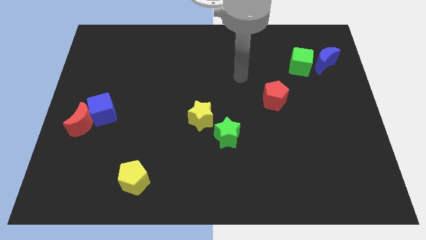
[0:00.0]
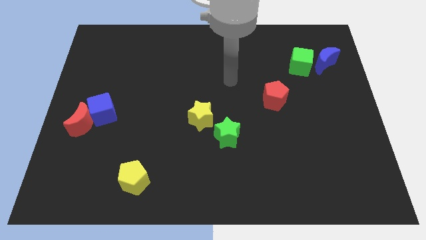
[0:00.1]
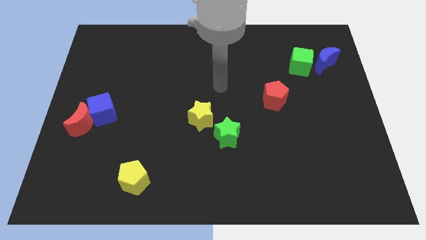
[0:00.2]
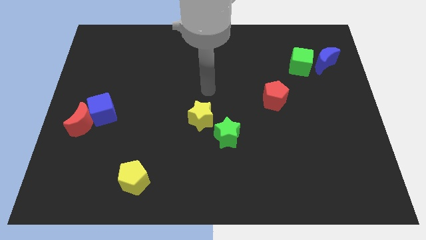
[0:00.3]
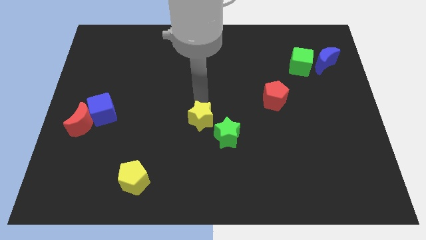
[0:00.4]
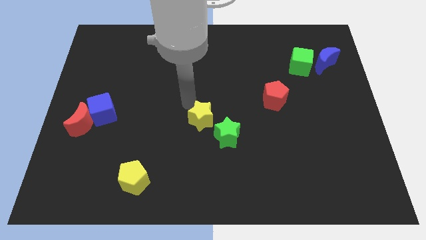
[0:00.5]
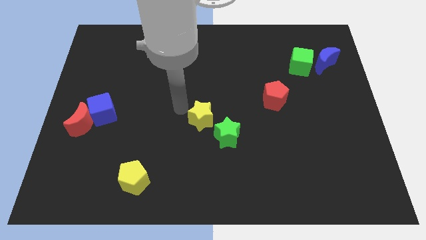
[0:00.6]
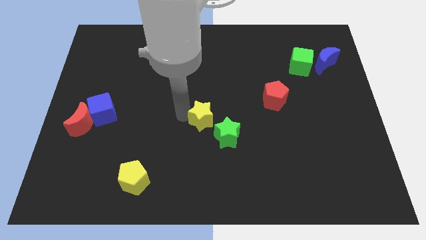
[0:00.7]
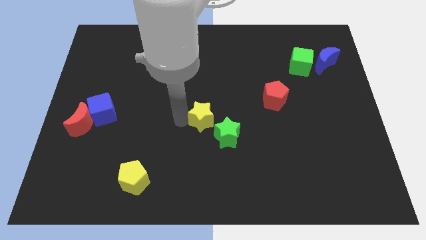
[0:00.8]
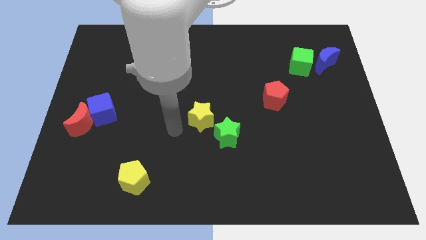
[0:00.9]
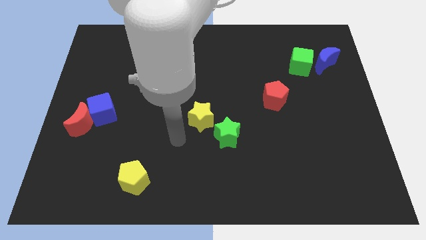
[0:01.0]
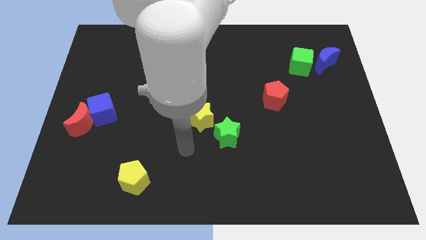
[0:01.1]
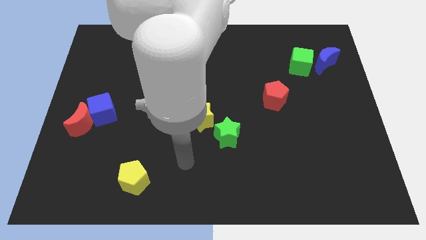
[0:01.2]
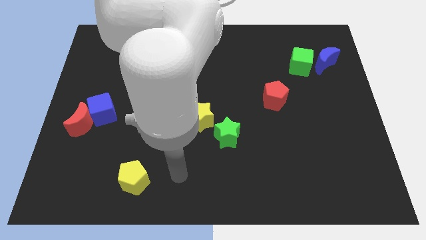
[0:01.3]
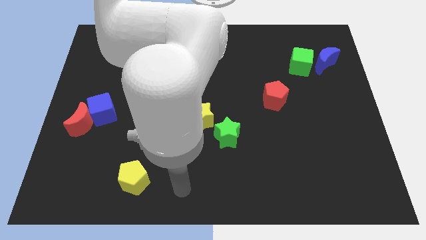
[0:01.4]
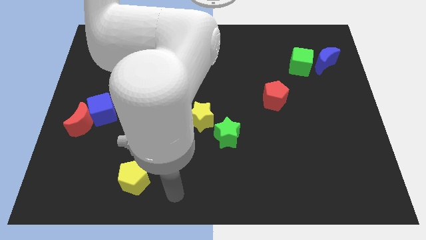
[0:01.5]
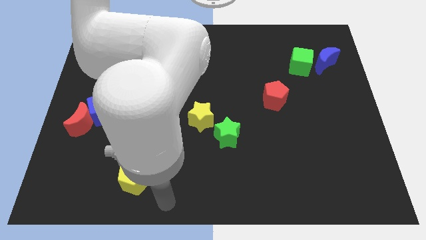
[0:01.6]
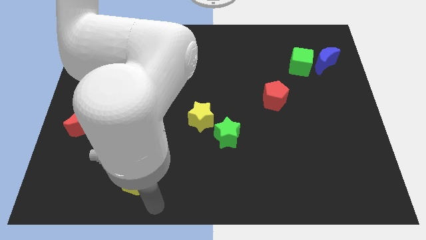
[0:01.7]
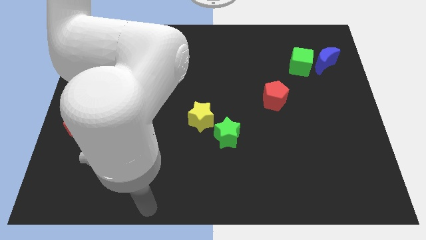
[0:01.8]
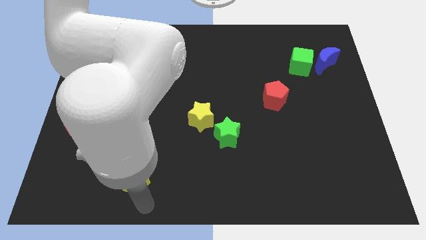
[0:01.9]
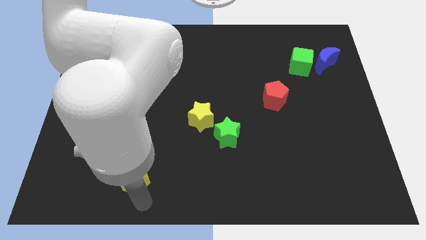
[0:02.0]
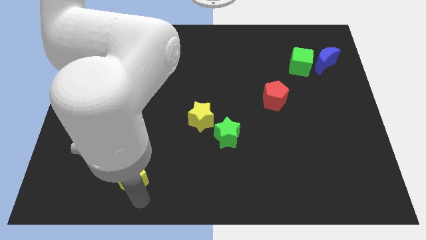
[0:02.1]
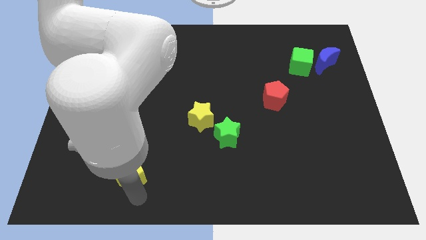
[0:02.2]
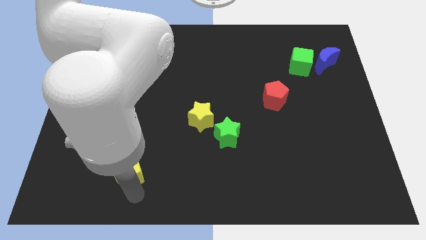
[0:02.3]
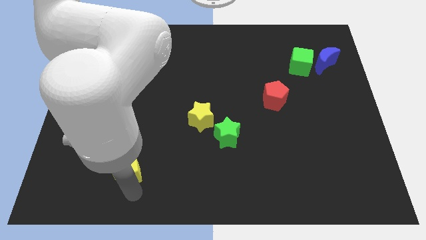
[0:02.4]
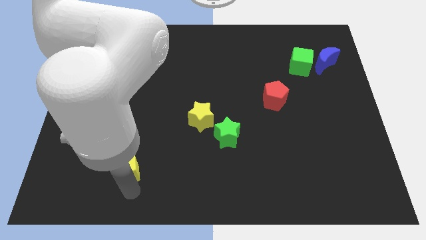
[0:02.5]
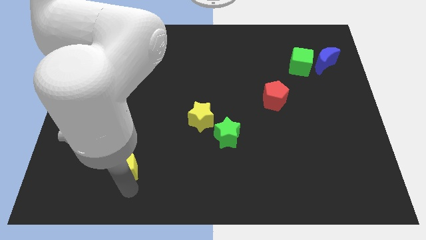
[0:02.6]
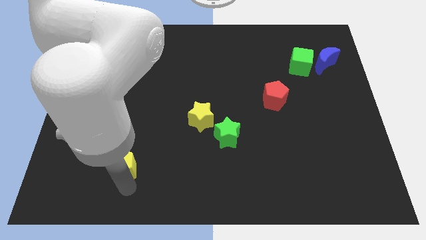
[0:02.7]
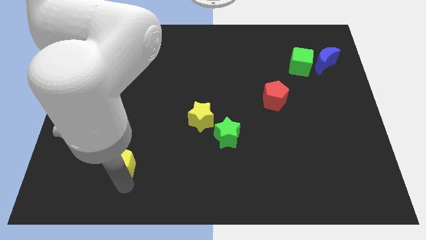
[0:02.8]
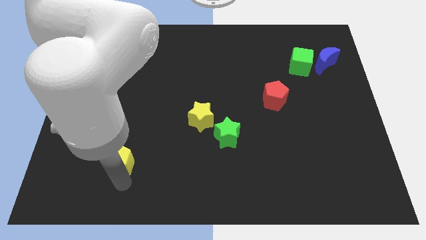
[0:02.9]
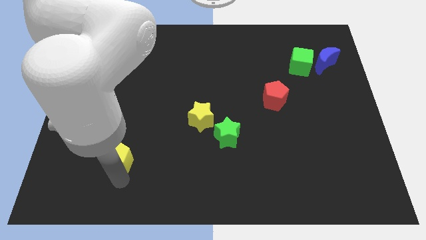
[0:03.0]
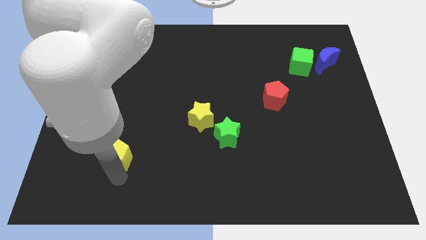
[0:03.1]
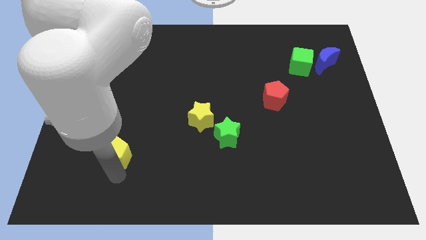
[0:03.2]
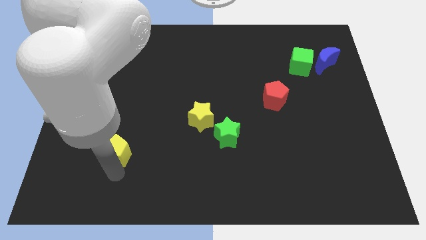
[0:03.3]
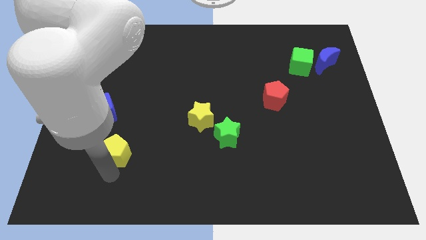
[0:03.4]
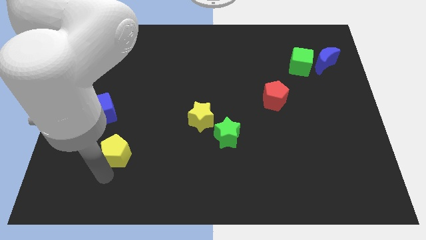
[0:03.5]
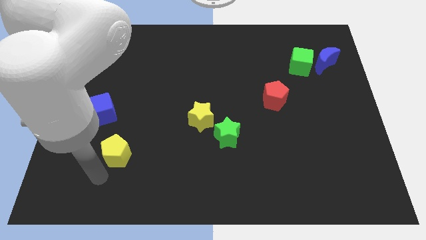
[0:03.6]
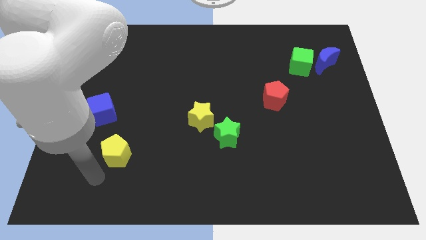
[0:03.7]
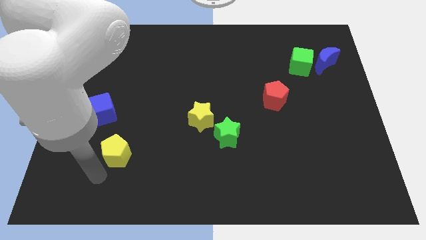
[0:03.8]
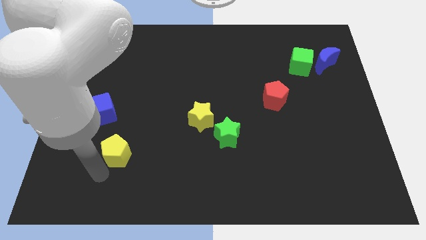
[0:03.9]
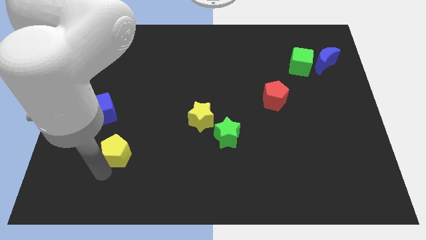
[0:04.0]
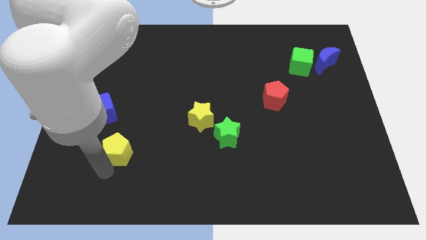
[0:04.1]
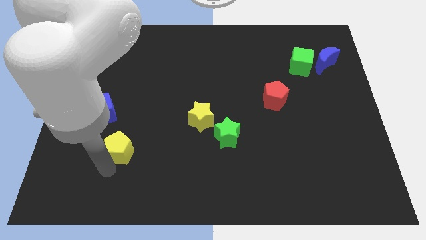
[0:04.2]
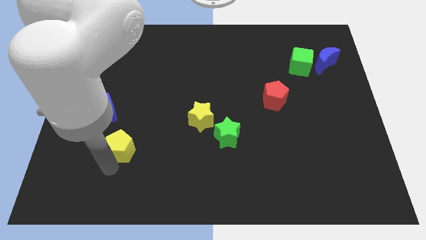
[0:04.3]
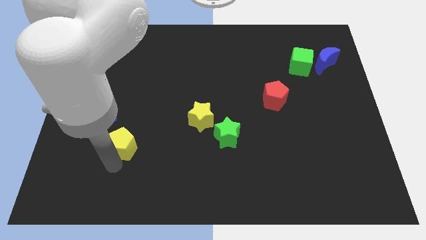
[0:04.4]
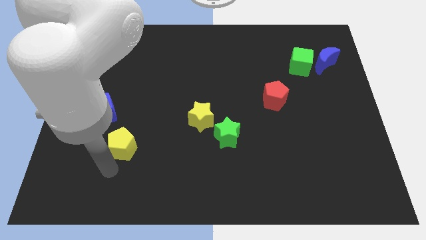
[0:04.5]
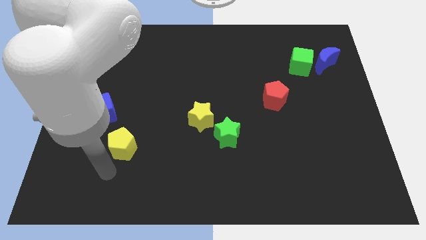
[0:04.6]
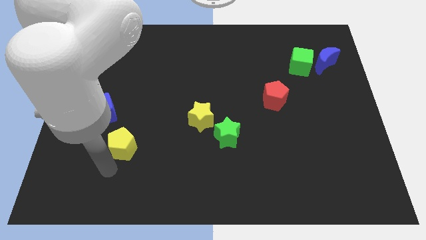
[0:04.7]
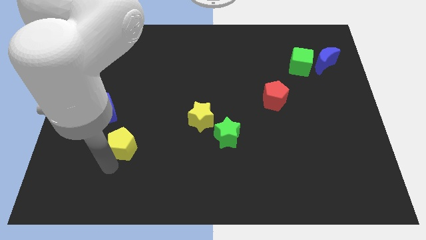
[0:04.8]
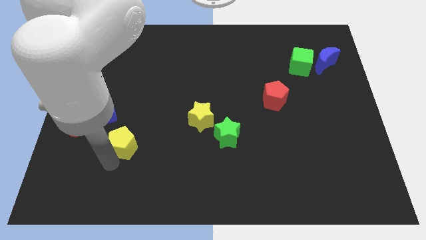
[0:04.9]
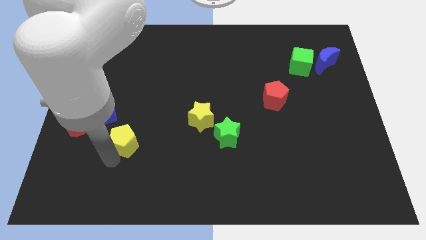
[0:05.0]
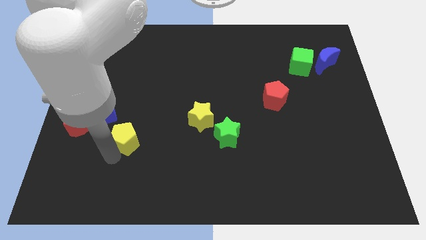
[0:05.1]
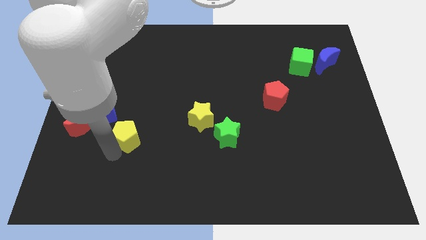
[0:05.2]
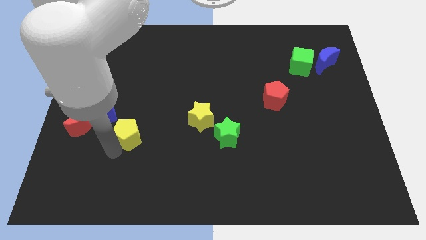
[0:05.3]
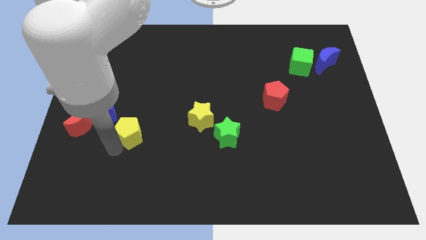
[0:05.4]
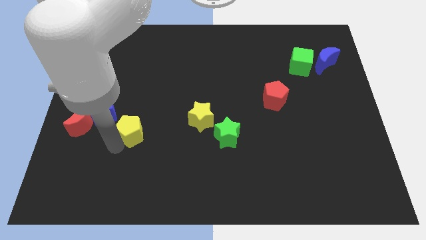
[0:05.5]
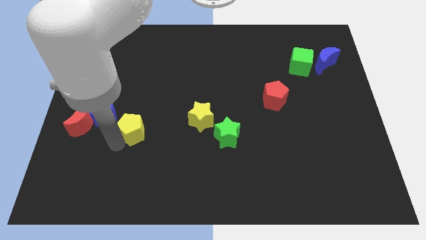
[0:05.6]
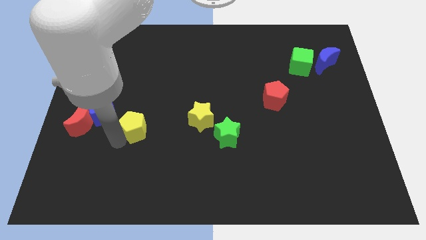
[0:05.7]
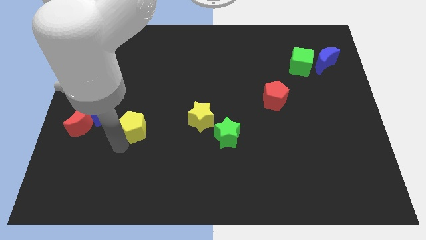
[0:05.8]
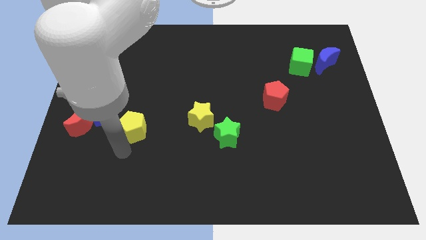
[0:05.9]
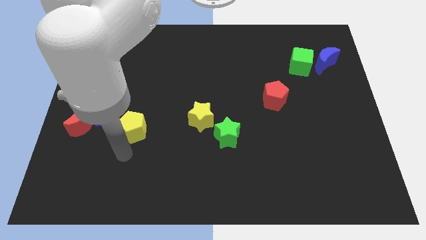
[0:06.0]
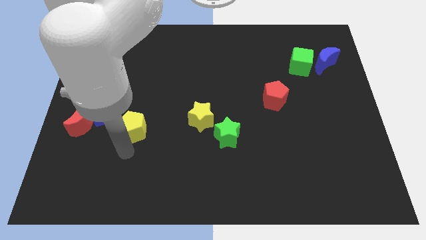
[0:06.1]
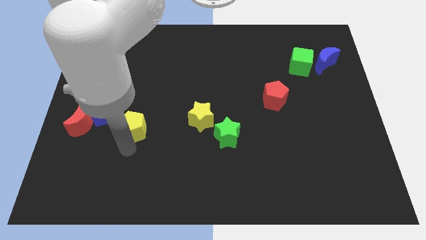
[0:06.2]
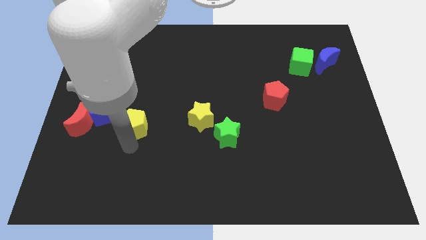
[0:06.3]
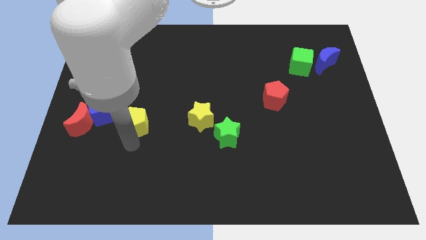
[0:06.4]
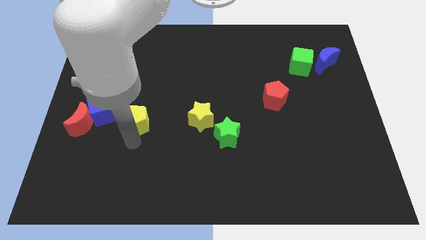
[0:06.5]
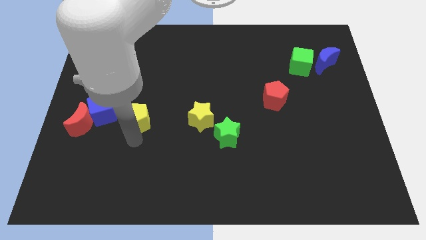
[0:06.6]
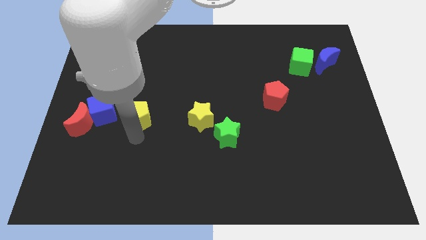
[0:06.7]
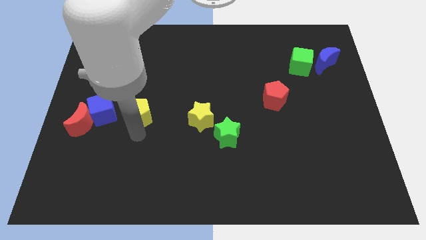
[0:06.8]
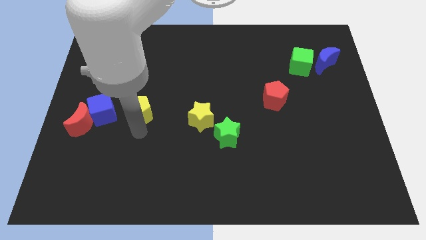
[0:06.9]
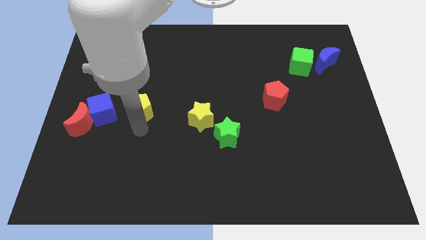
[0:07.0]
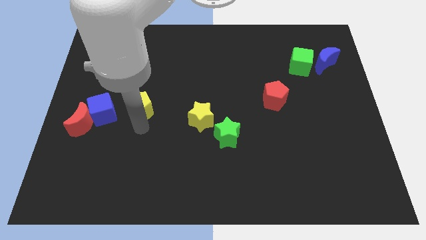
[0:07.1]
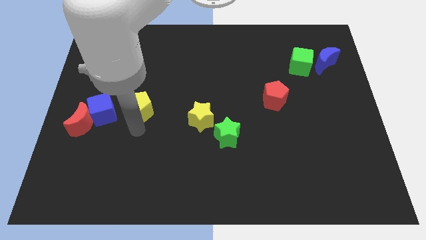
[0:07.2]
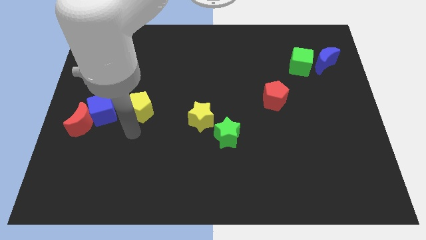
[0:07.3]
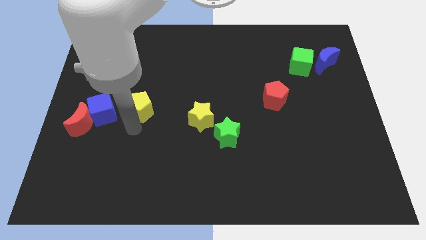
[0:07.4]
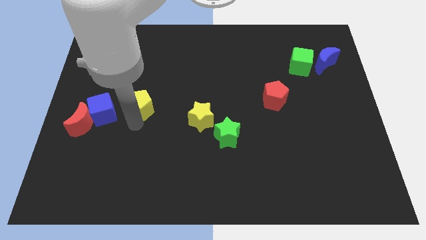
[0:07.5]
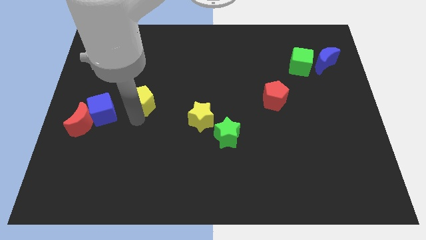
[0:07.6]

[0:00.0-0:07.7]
slide the yellow pentagon upwards

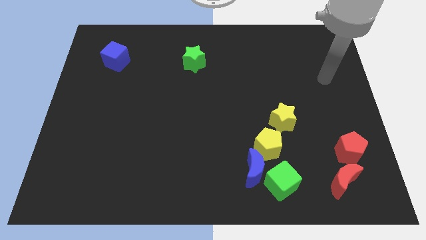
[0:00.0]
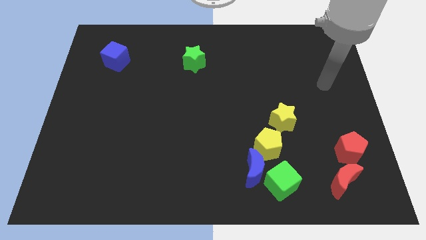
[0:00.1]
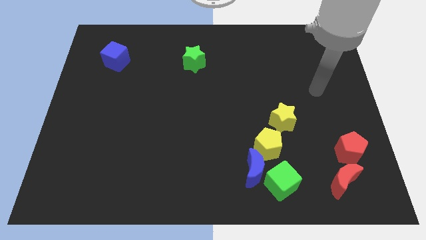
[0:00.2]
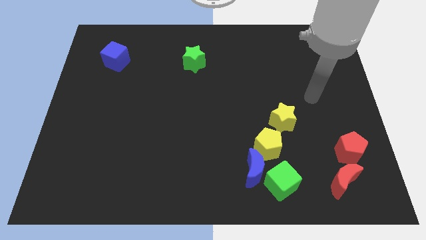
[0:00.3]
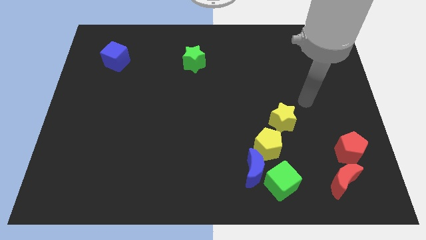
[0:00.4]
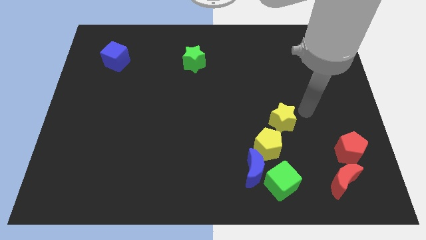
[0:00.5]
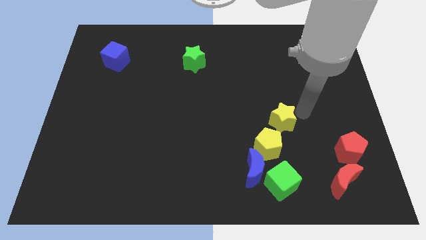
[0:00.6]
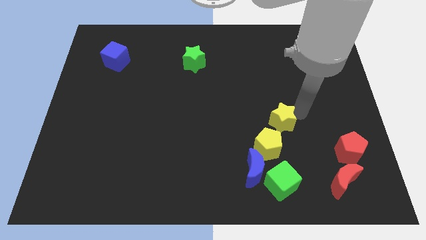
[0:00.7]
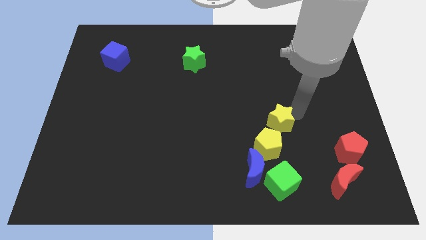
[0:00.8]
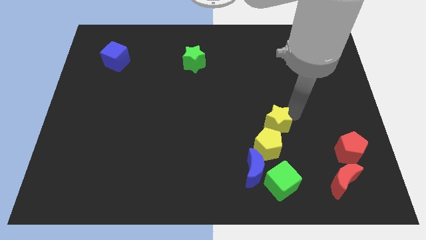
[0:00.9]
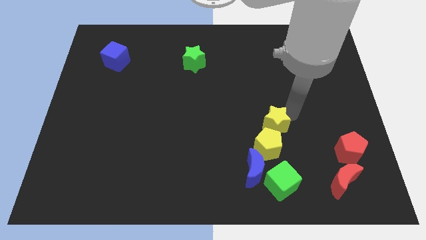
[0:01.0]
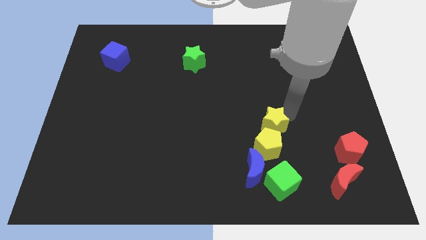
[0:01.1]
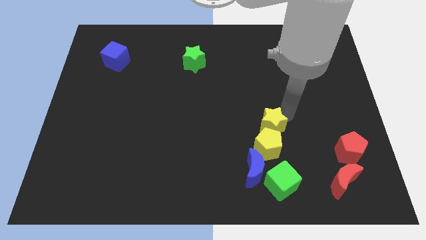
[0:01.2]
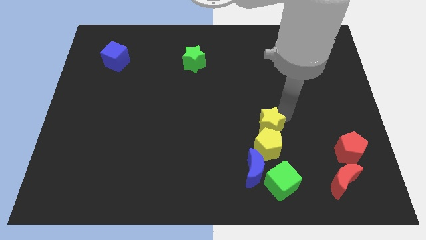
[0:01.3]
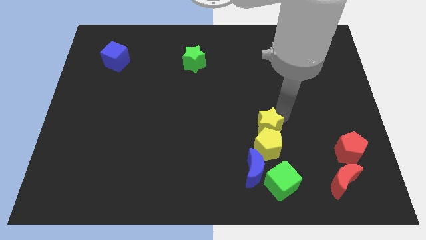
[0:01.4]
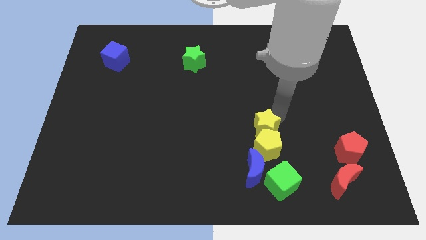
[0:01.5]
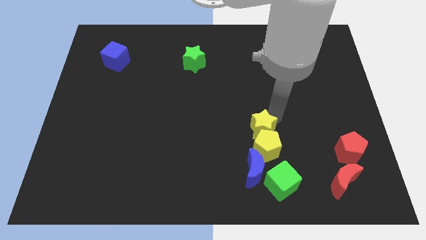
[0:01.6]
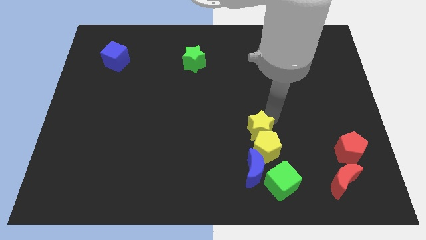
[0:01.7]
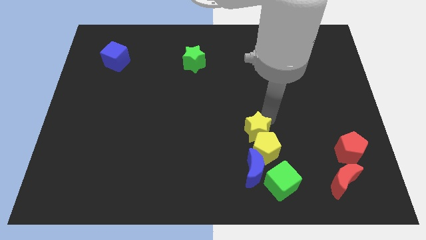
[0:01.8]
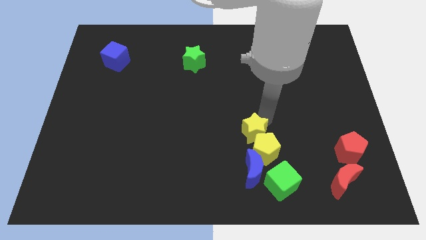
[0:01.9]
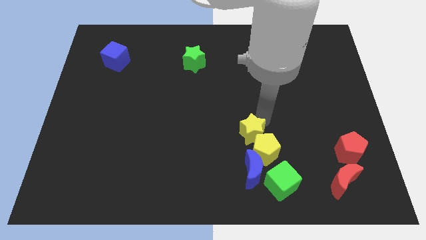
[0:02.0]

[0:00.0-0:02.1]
slightly push the yellow star down and to the left
